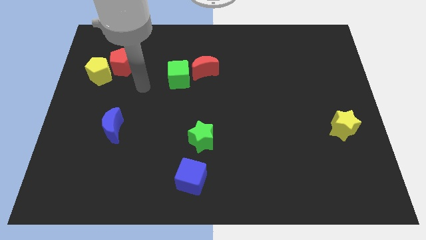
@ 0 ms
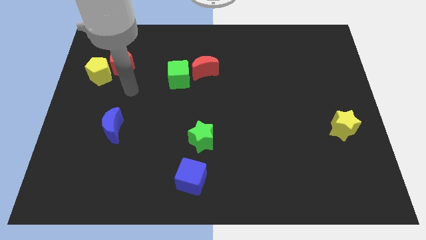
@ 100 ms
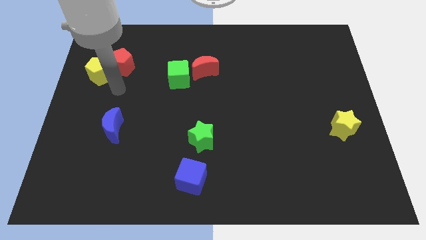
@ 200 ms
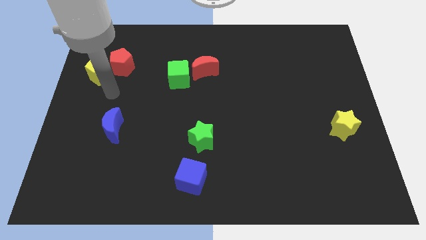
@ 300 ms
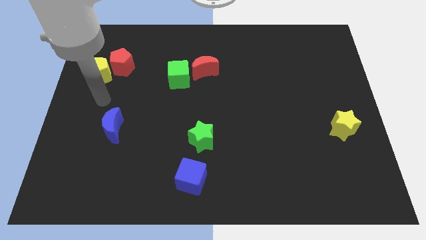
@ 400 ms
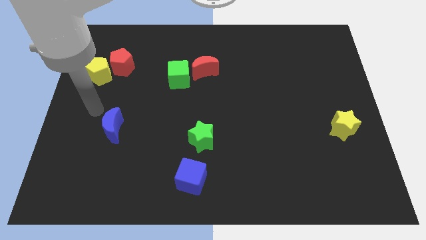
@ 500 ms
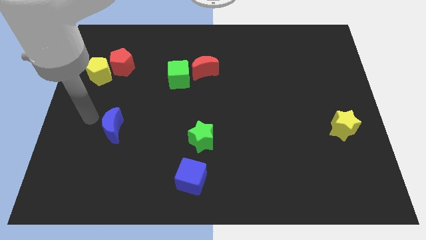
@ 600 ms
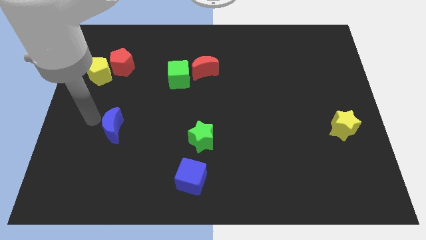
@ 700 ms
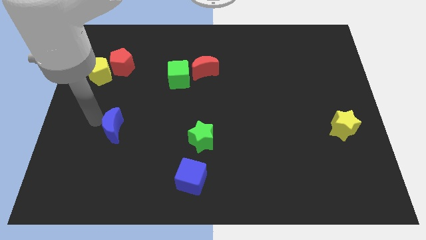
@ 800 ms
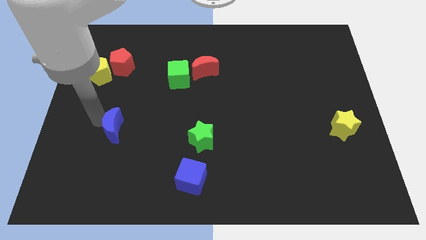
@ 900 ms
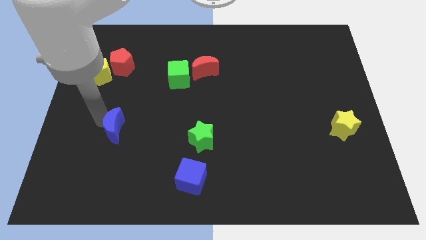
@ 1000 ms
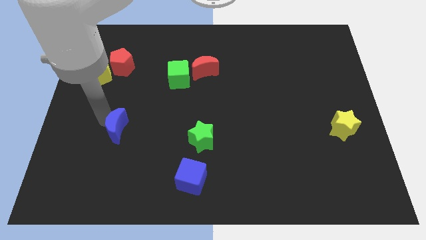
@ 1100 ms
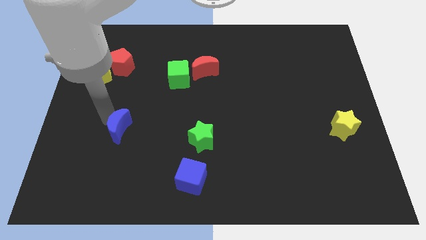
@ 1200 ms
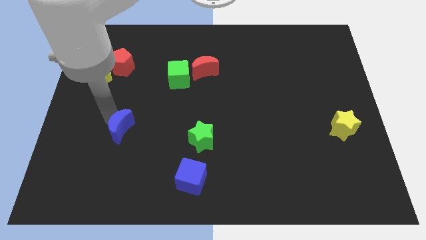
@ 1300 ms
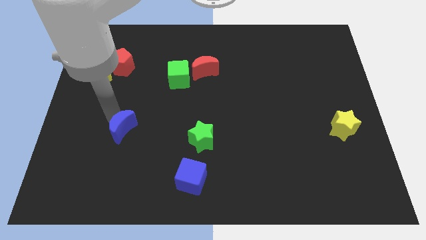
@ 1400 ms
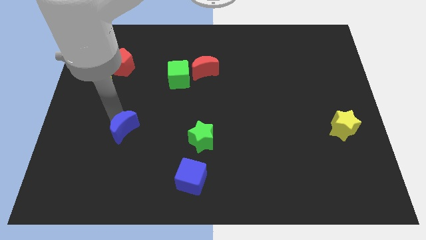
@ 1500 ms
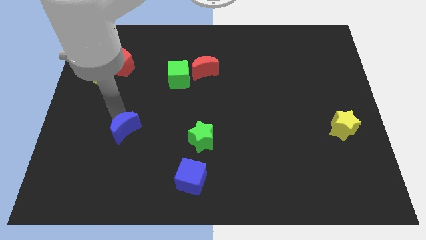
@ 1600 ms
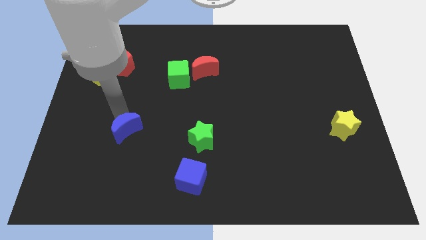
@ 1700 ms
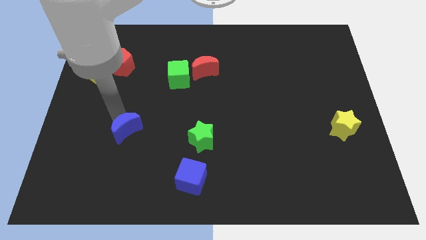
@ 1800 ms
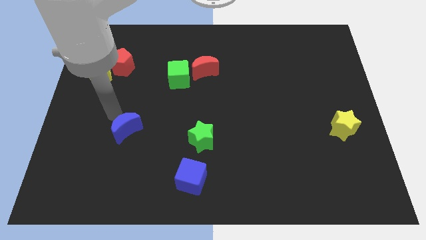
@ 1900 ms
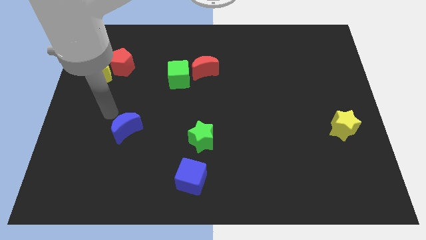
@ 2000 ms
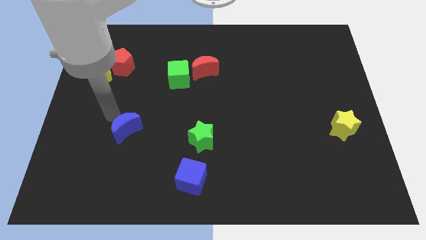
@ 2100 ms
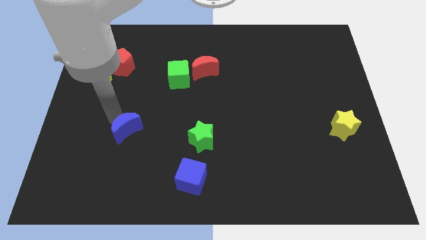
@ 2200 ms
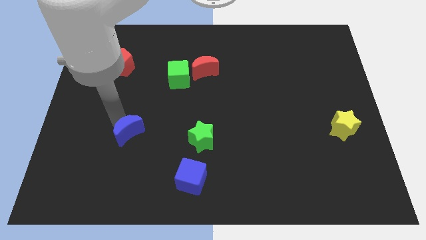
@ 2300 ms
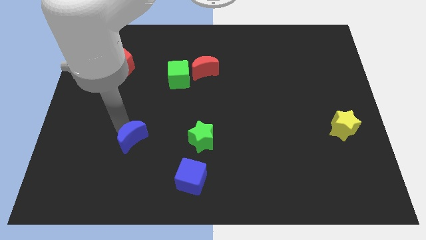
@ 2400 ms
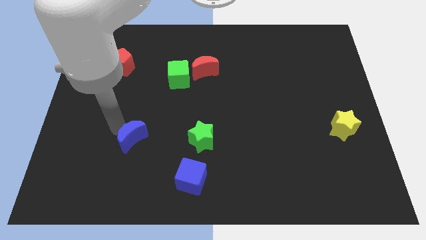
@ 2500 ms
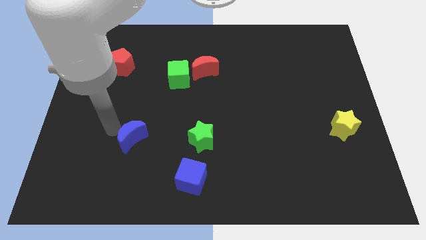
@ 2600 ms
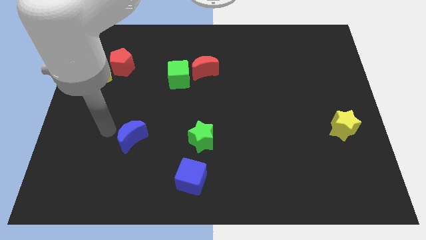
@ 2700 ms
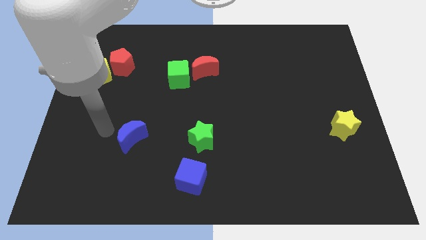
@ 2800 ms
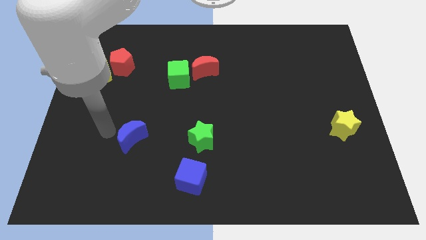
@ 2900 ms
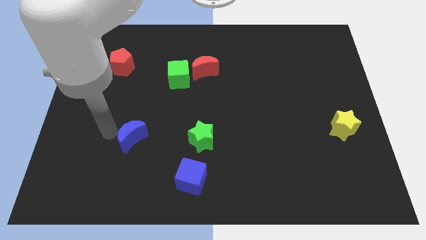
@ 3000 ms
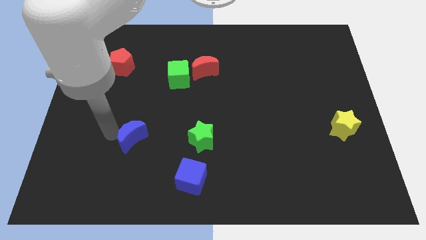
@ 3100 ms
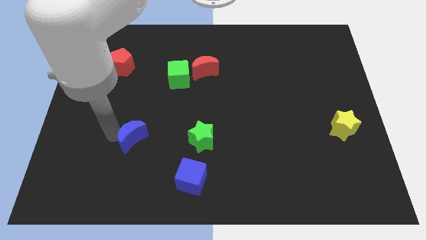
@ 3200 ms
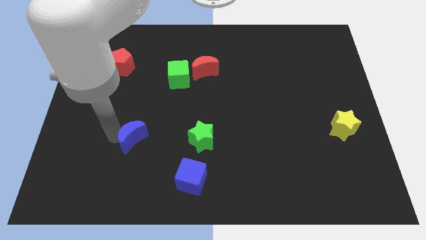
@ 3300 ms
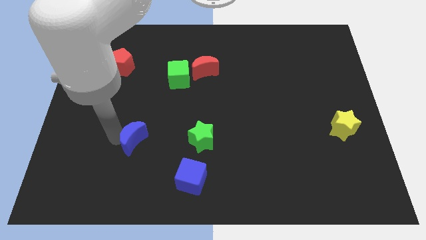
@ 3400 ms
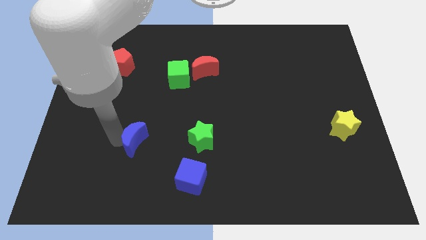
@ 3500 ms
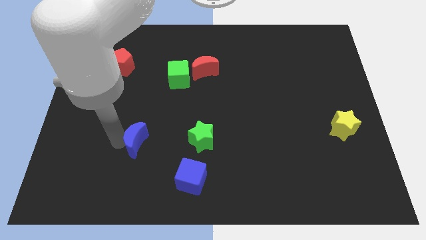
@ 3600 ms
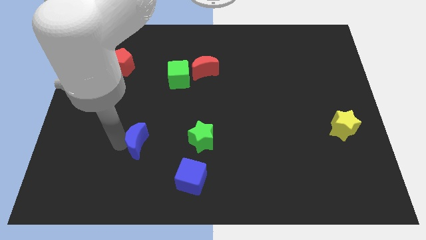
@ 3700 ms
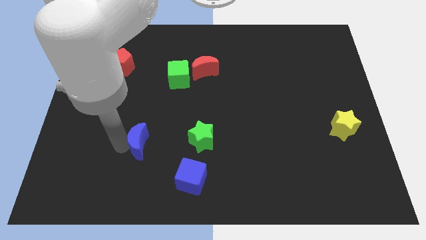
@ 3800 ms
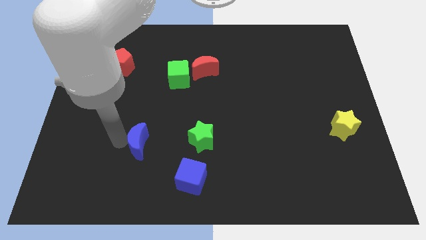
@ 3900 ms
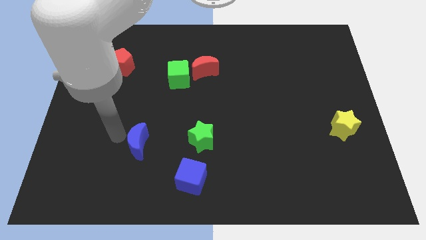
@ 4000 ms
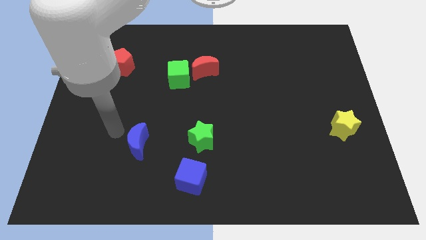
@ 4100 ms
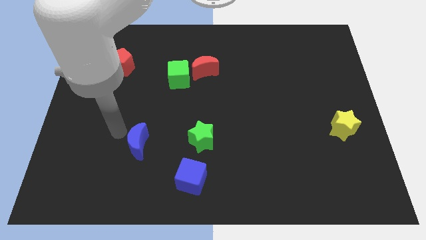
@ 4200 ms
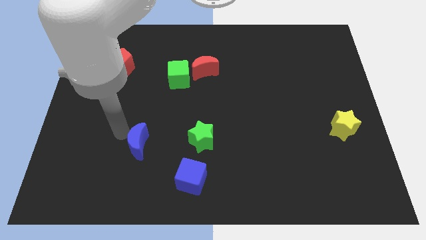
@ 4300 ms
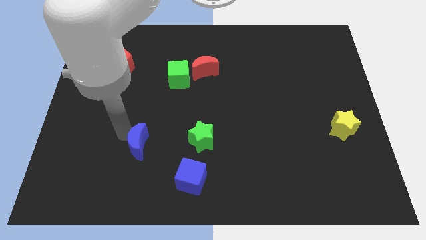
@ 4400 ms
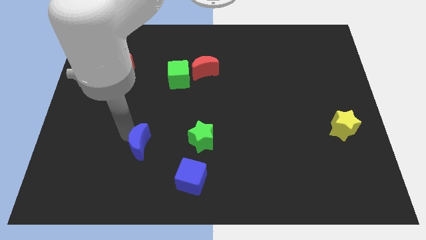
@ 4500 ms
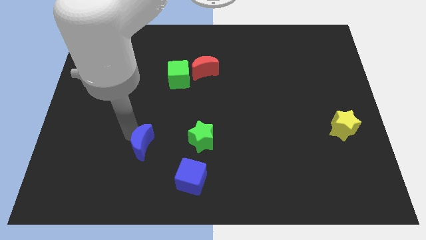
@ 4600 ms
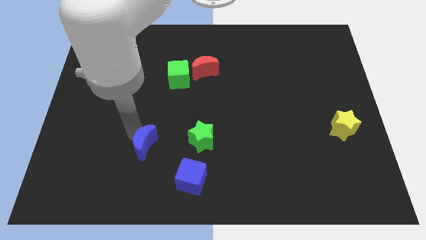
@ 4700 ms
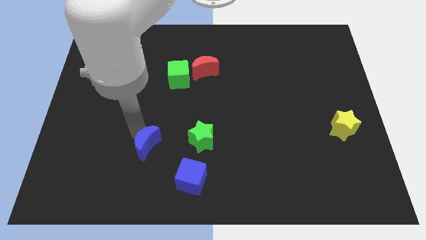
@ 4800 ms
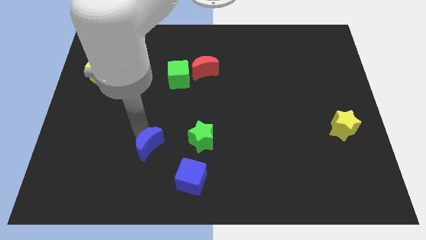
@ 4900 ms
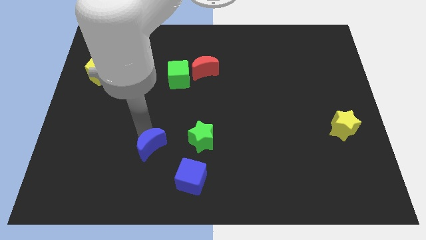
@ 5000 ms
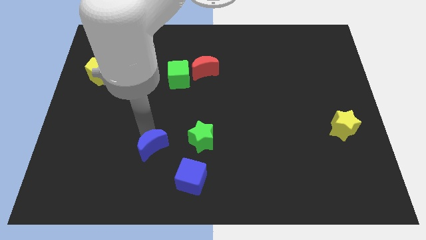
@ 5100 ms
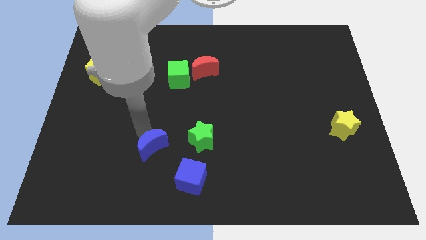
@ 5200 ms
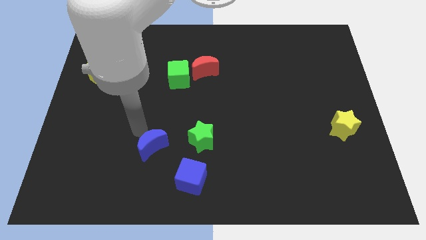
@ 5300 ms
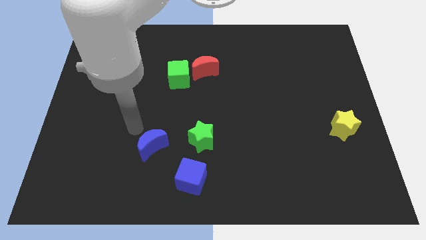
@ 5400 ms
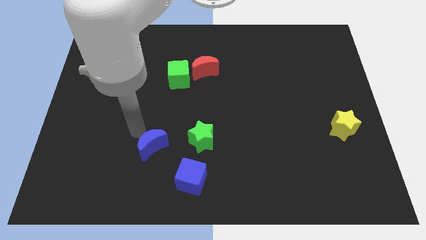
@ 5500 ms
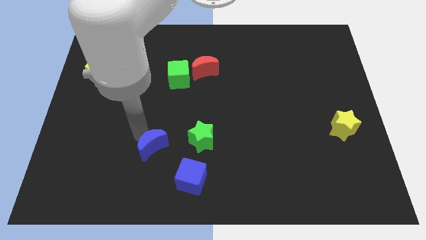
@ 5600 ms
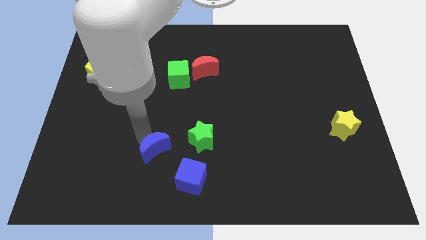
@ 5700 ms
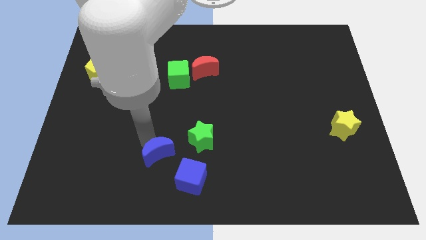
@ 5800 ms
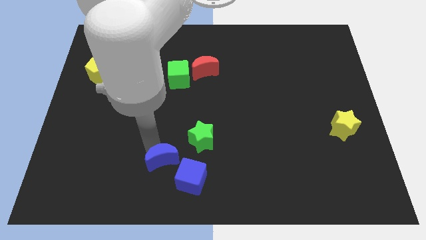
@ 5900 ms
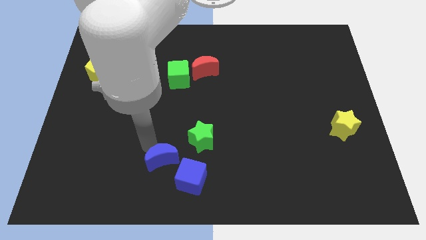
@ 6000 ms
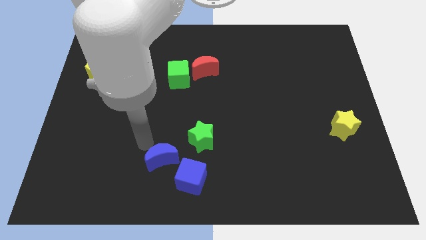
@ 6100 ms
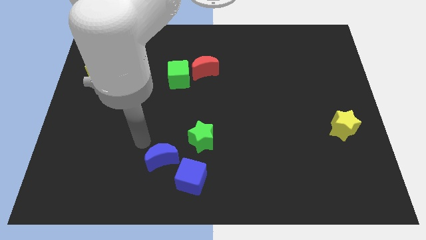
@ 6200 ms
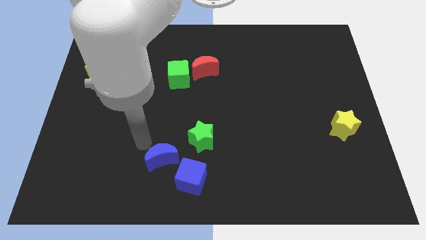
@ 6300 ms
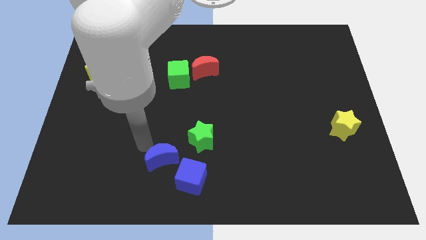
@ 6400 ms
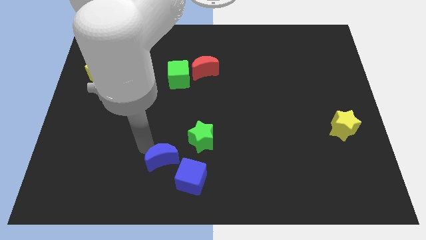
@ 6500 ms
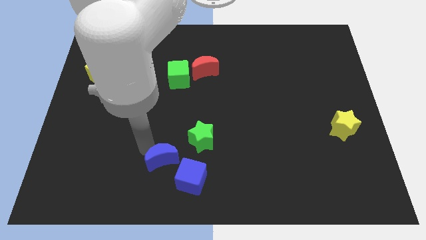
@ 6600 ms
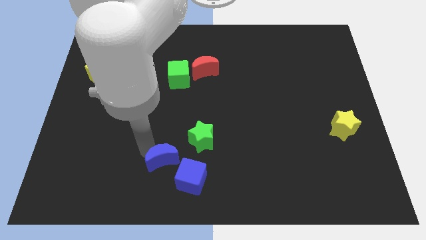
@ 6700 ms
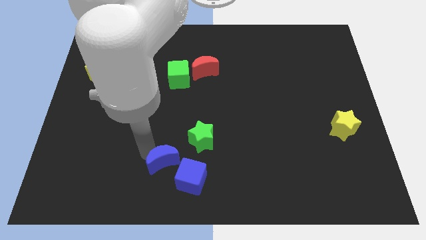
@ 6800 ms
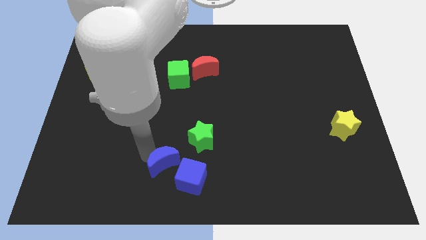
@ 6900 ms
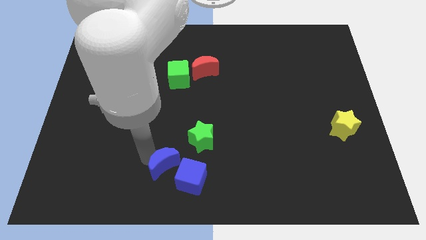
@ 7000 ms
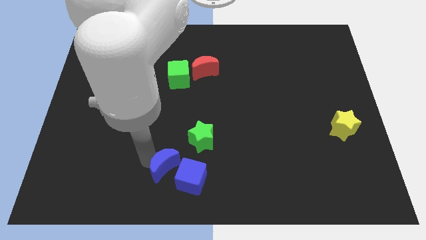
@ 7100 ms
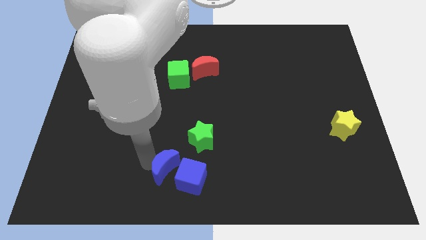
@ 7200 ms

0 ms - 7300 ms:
move the blue moon close to the blue cube

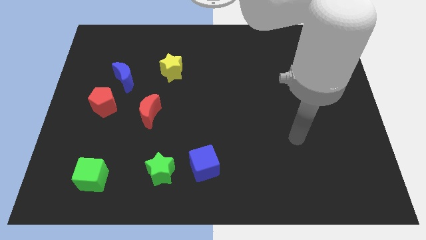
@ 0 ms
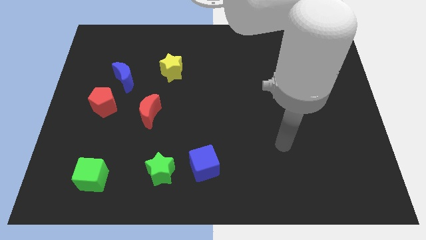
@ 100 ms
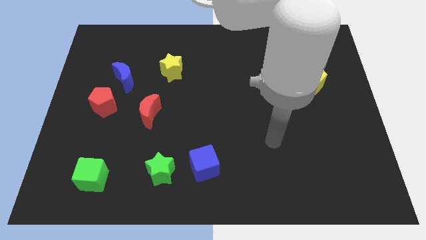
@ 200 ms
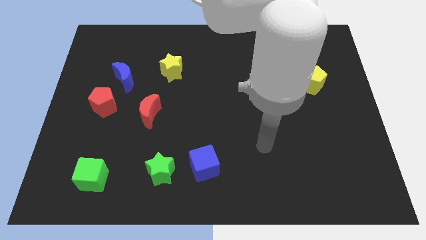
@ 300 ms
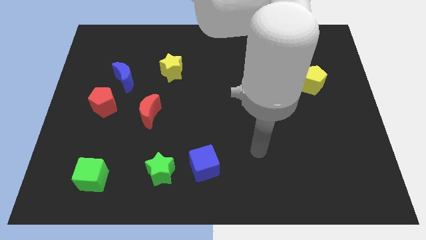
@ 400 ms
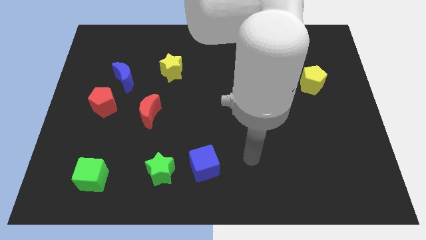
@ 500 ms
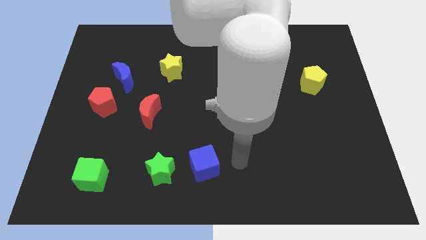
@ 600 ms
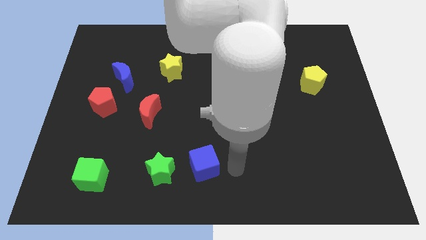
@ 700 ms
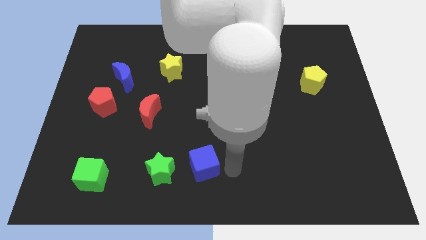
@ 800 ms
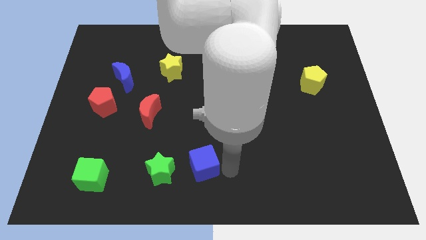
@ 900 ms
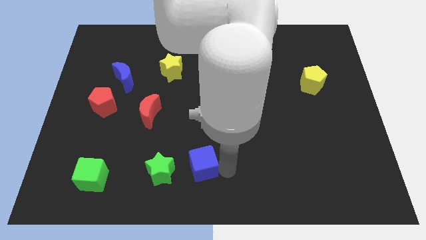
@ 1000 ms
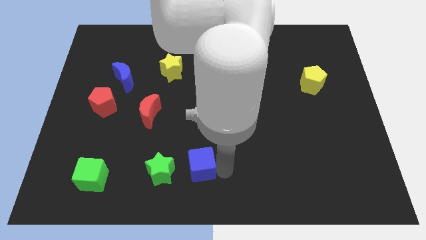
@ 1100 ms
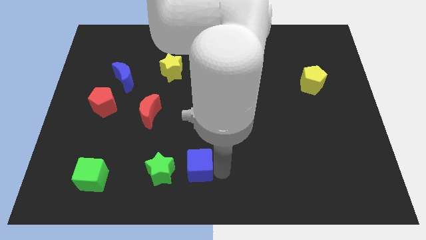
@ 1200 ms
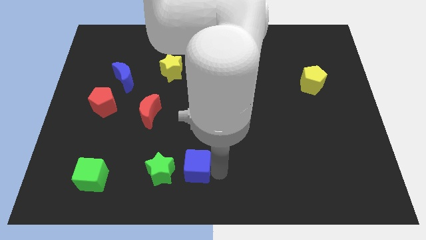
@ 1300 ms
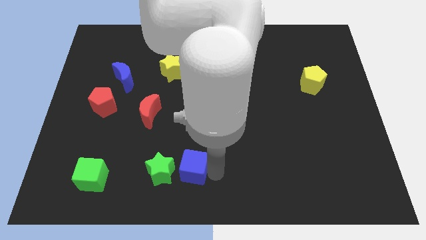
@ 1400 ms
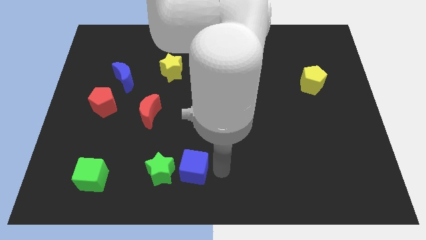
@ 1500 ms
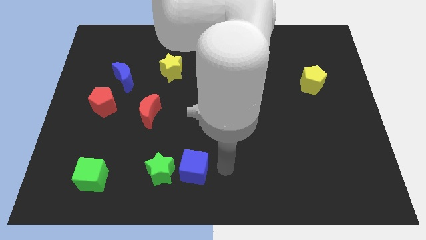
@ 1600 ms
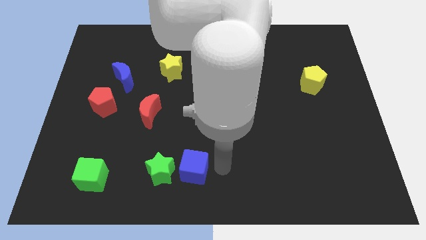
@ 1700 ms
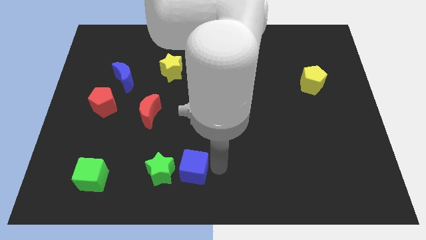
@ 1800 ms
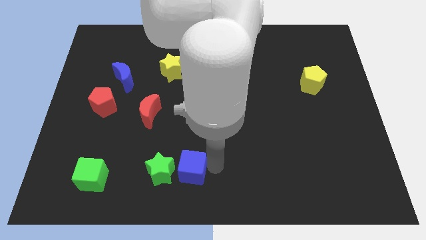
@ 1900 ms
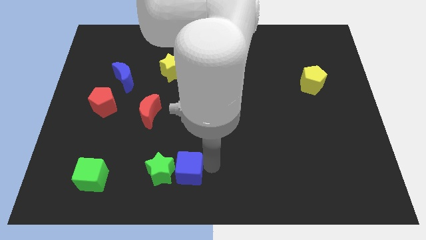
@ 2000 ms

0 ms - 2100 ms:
put the blue cube next to the green star
